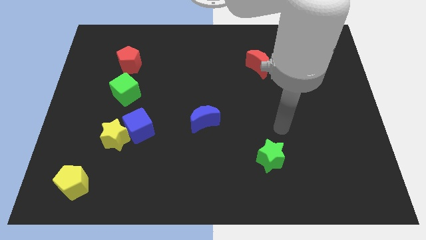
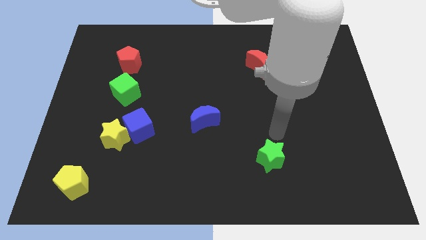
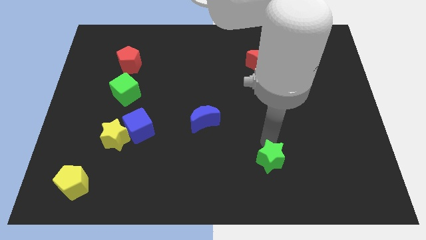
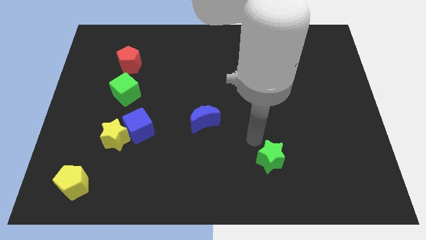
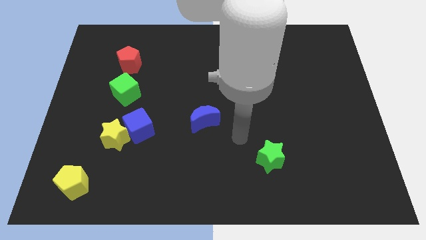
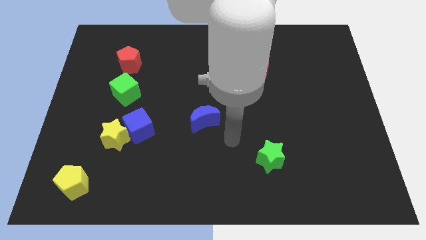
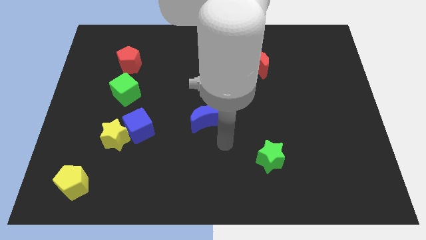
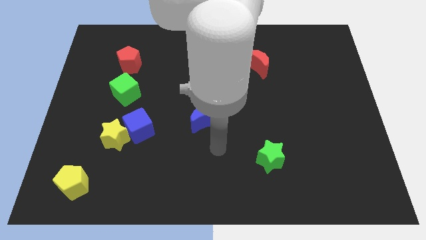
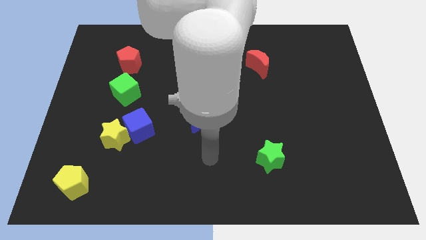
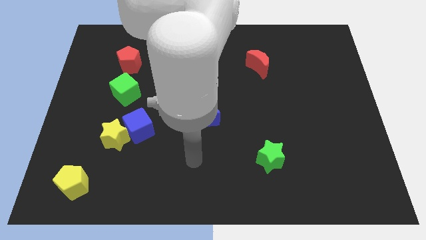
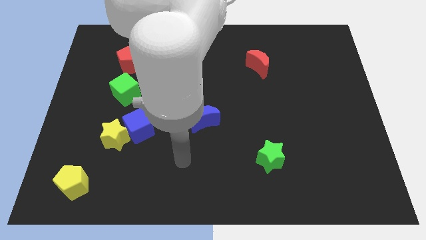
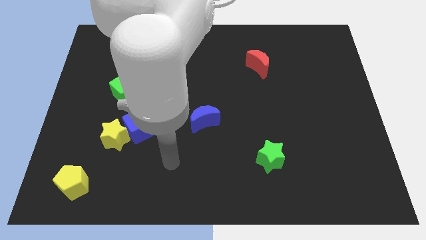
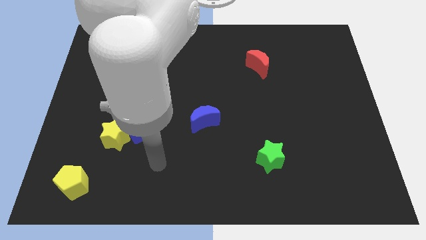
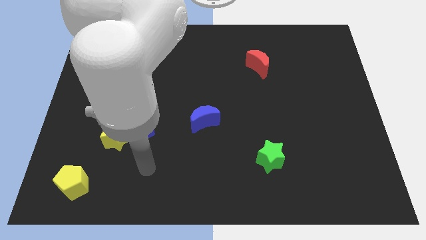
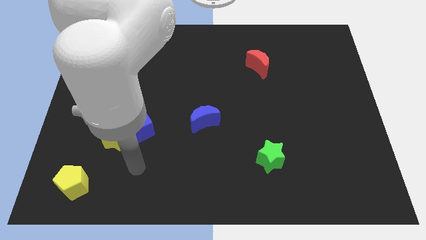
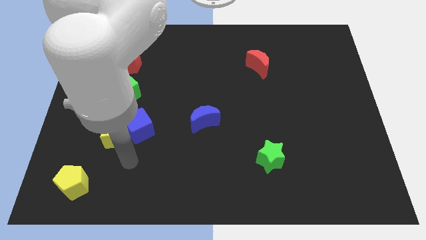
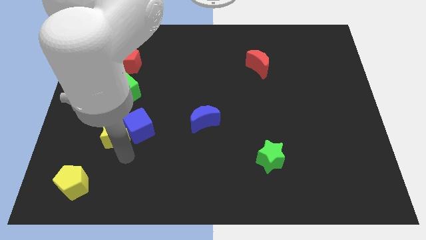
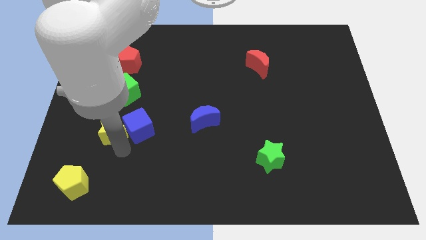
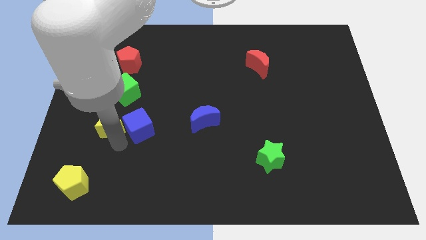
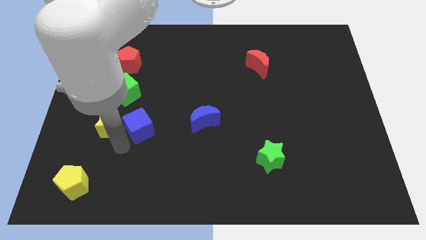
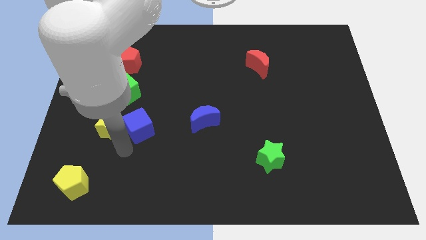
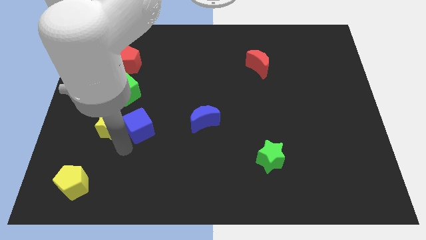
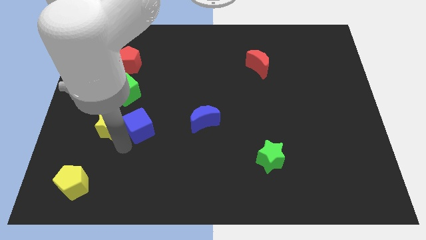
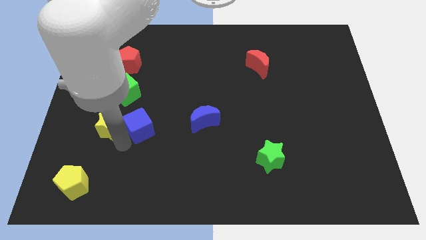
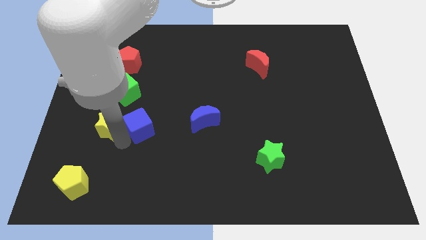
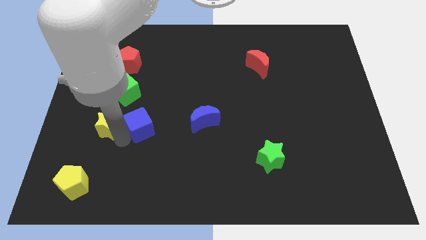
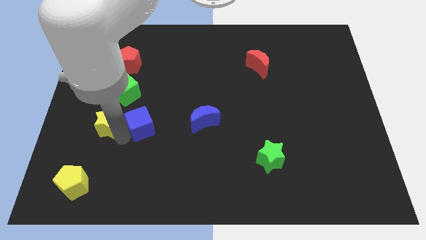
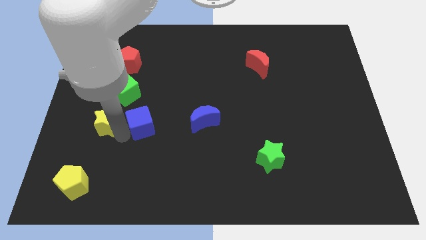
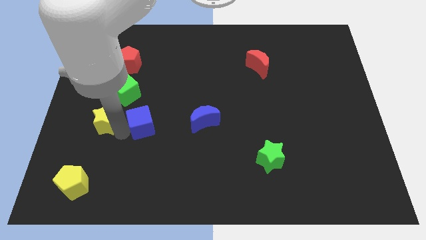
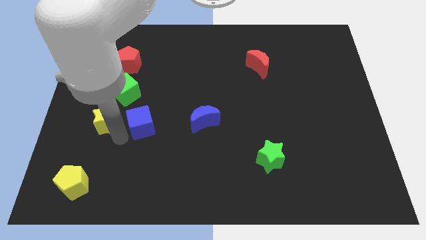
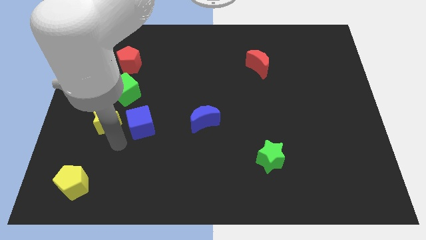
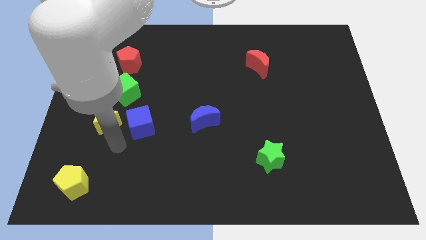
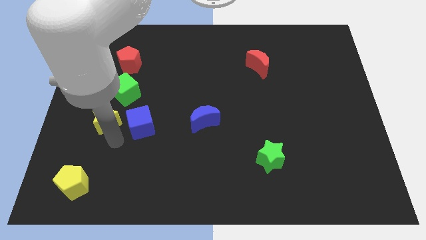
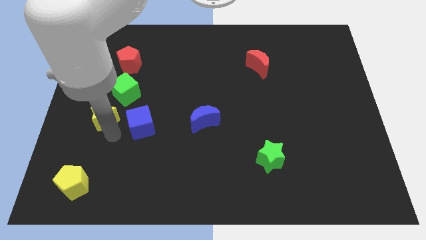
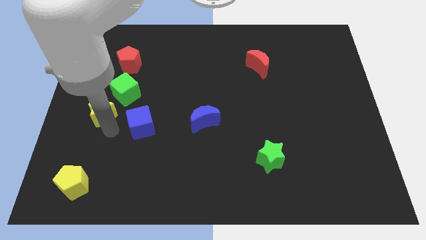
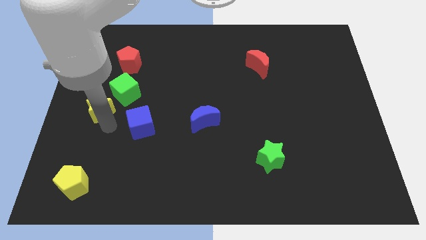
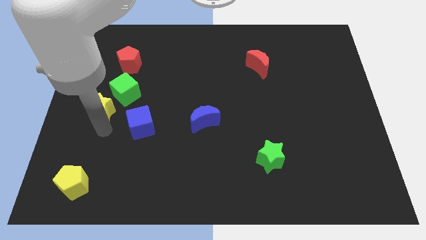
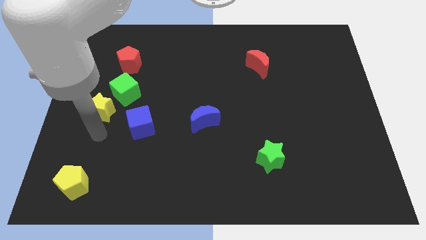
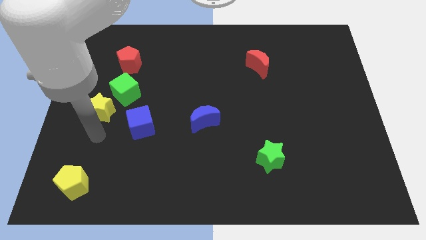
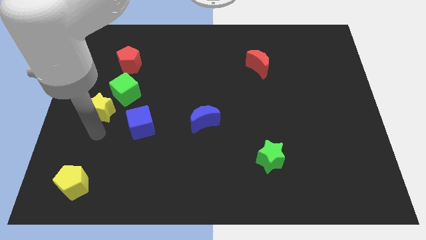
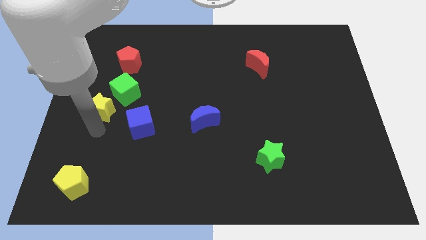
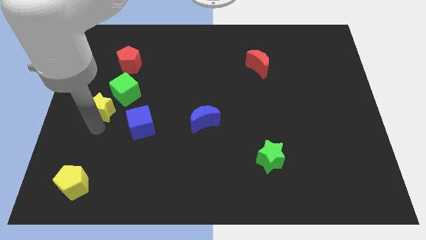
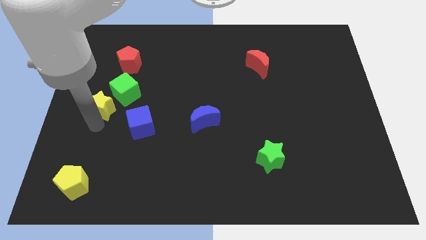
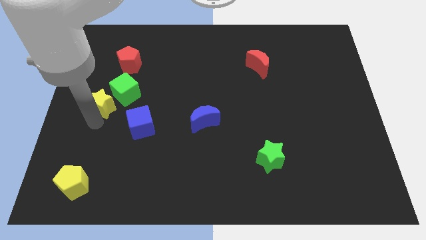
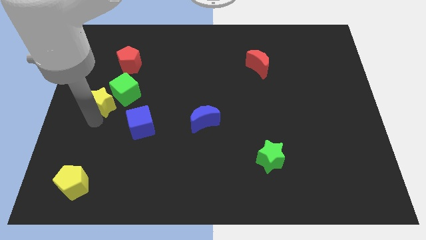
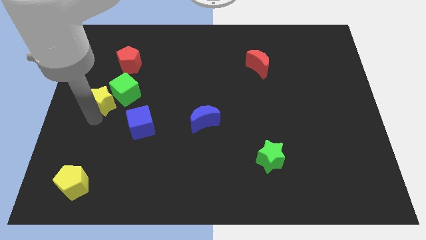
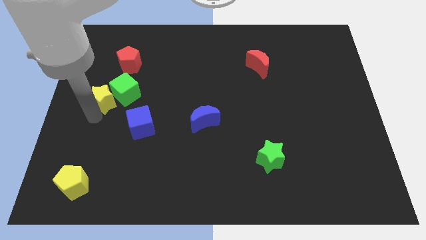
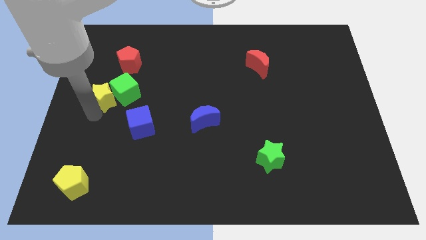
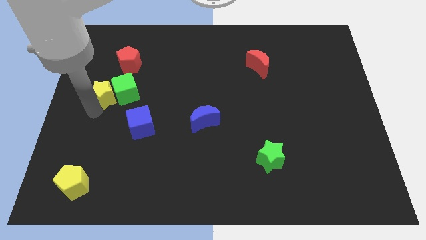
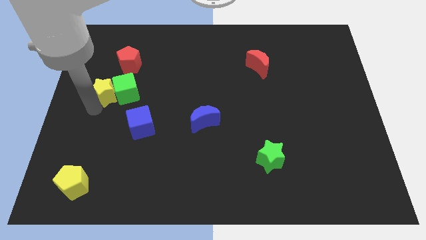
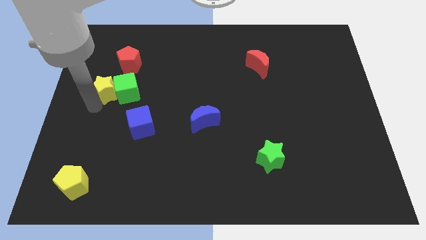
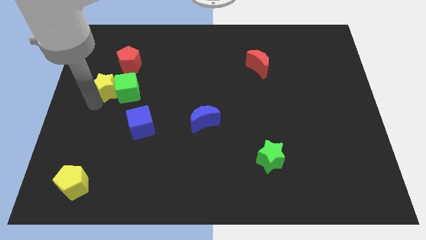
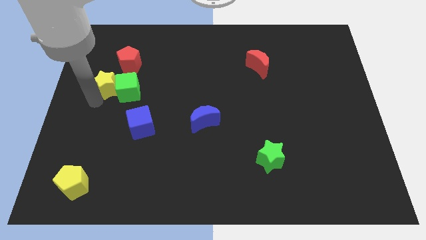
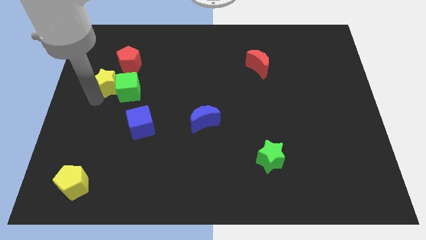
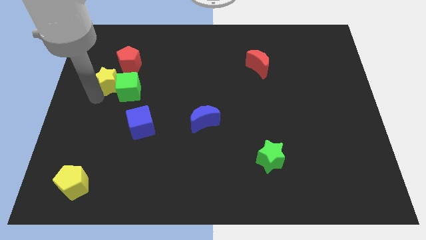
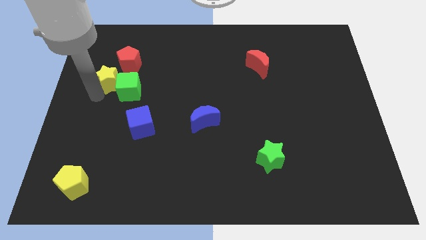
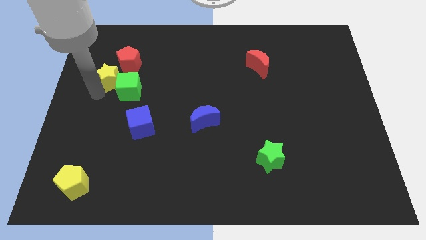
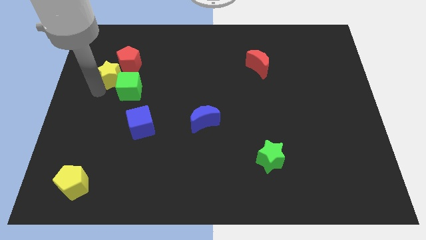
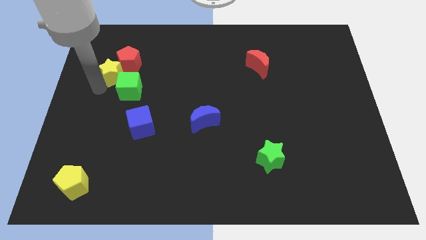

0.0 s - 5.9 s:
move the yellow star to the red pentagon

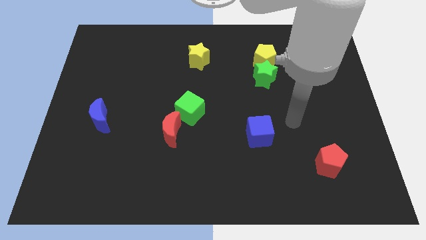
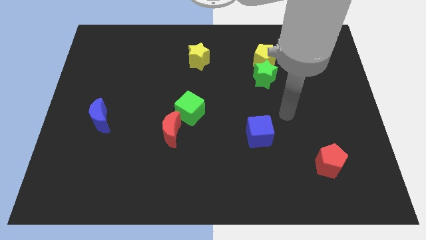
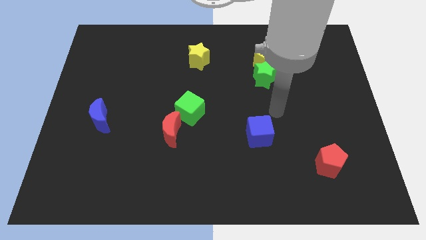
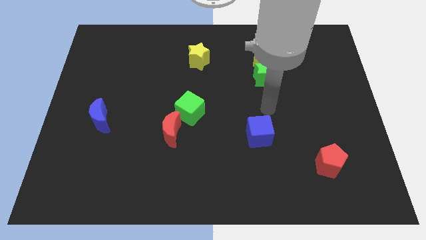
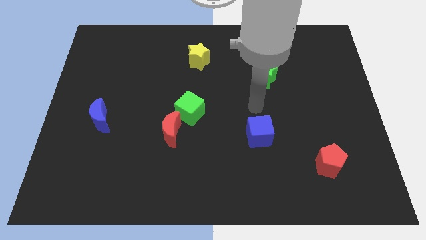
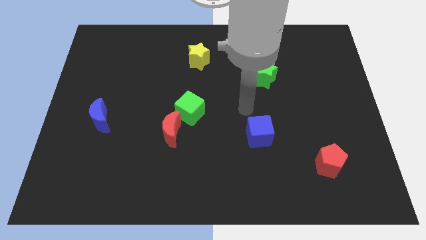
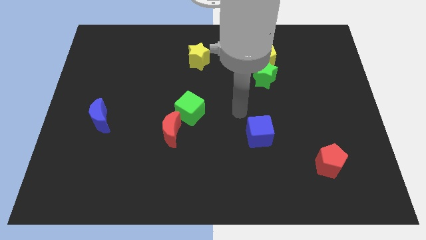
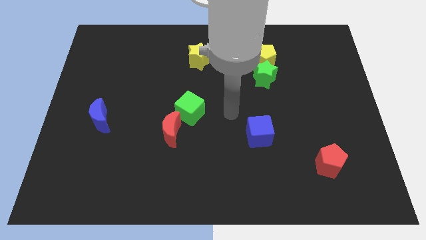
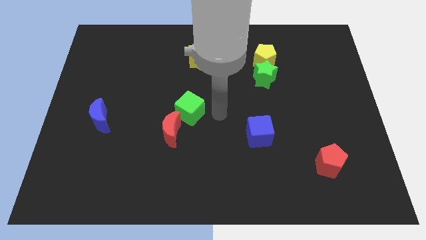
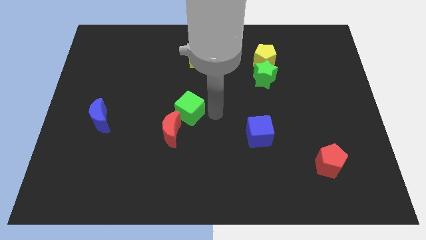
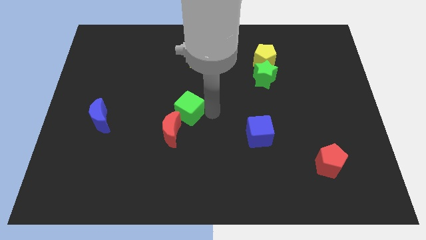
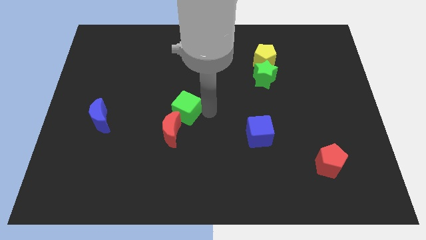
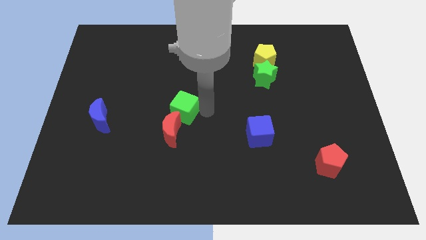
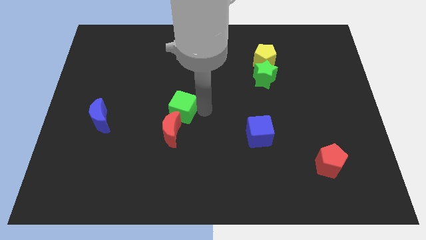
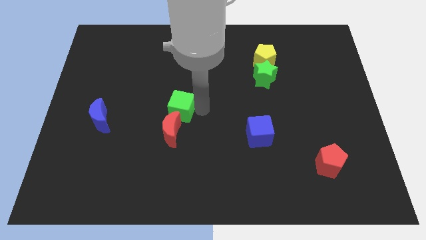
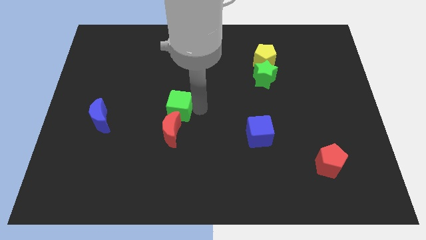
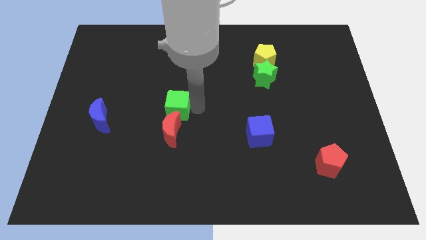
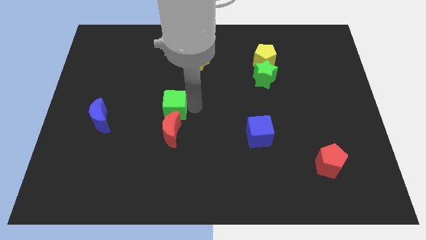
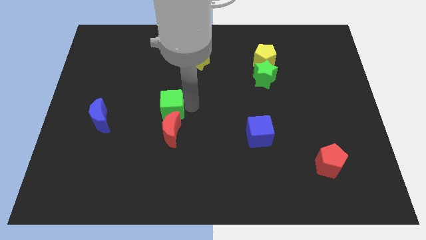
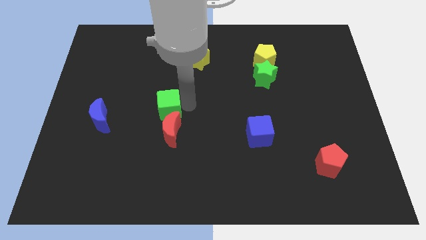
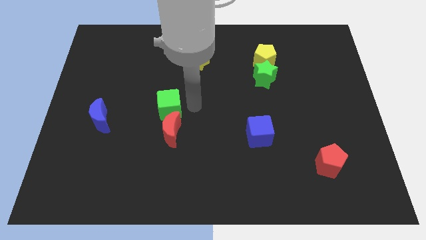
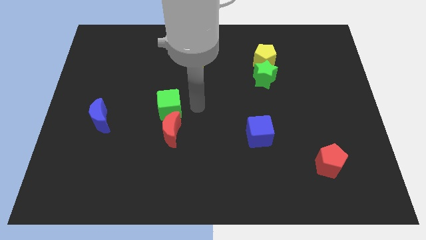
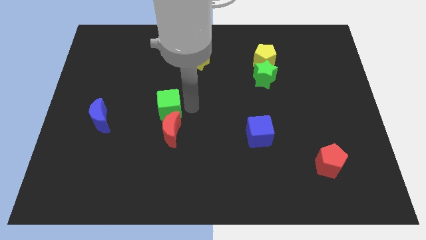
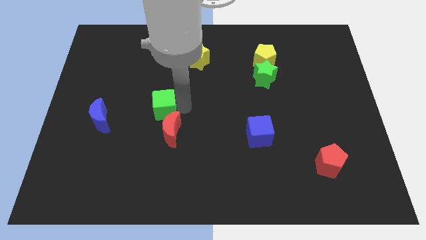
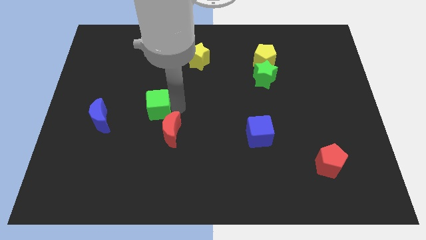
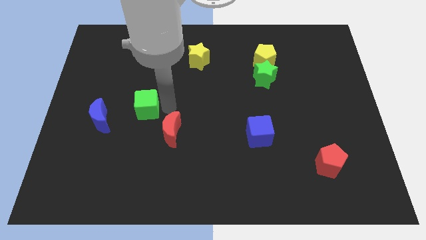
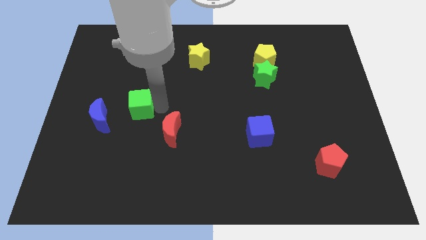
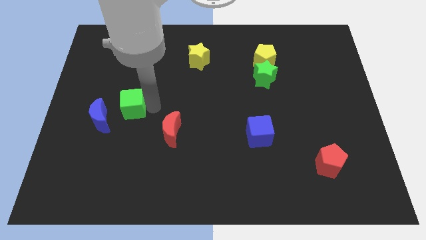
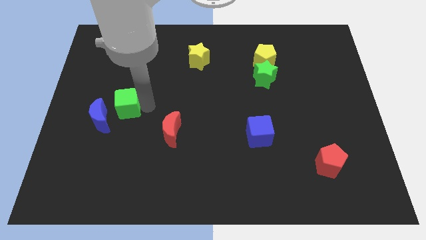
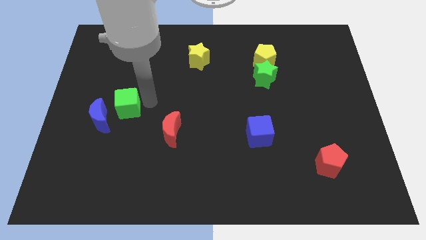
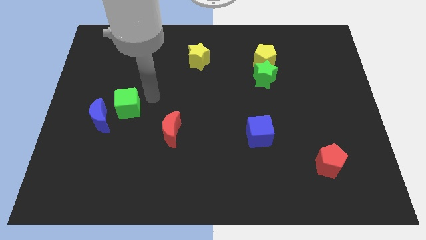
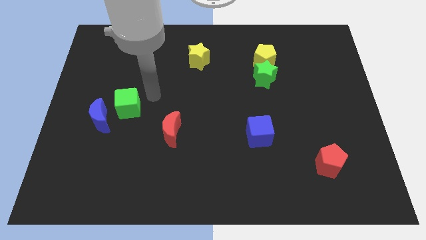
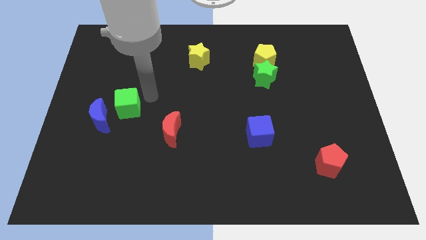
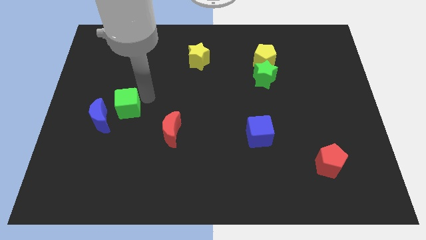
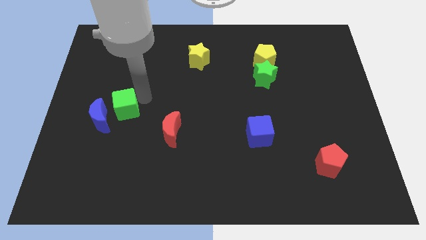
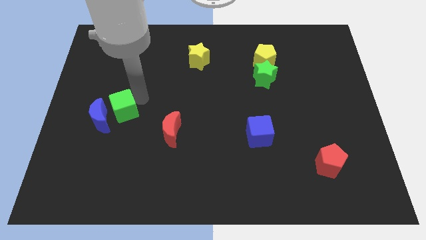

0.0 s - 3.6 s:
push the green cube next to the blue moon
